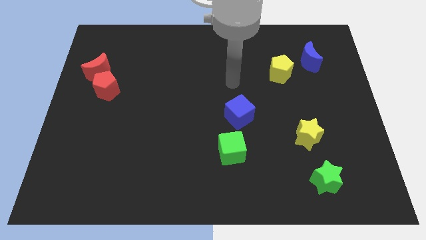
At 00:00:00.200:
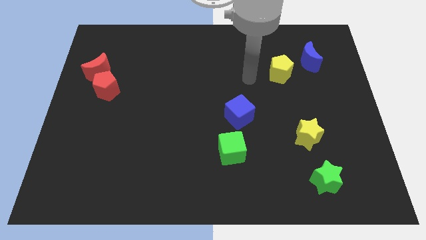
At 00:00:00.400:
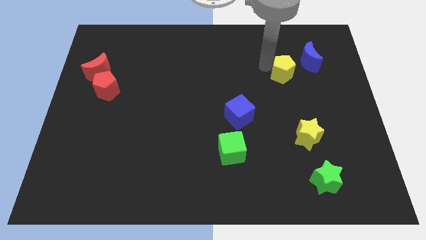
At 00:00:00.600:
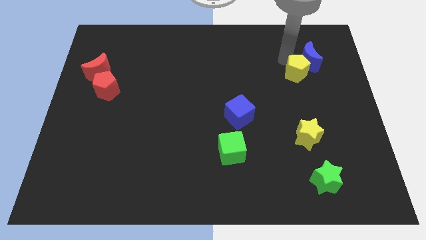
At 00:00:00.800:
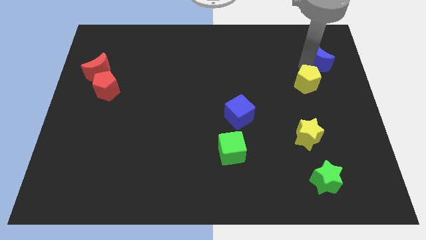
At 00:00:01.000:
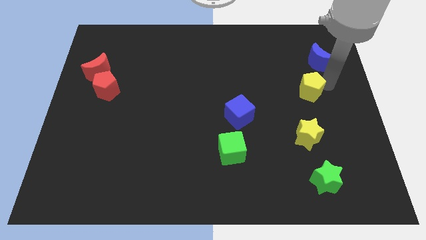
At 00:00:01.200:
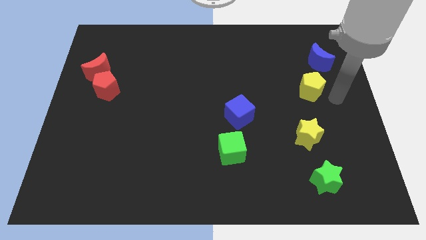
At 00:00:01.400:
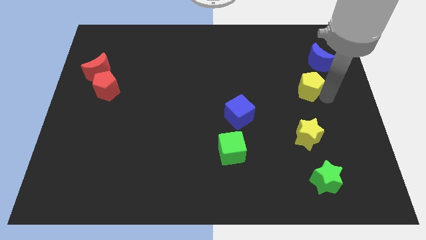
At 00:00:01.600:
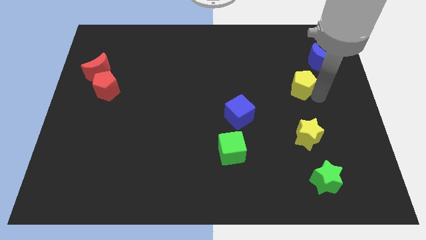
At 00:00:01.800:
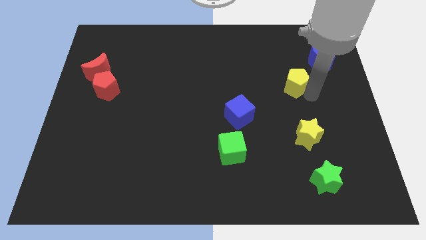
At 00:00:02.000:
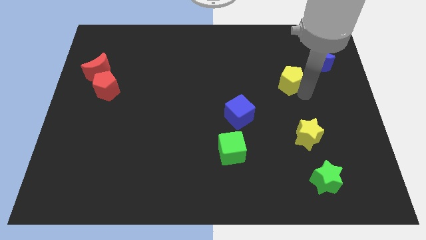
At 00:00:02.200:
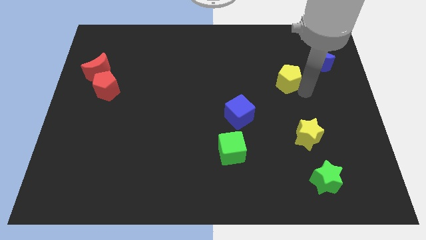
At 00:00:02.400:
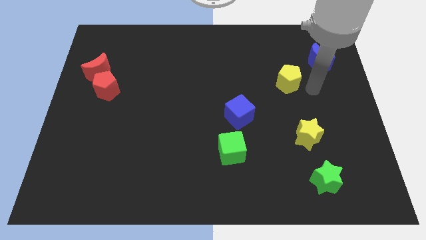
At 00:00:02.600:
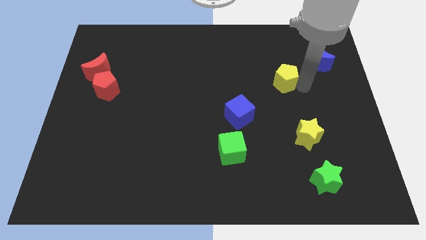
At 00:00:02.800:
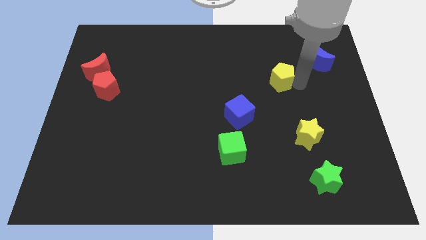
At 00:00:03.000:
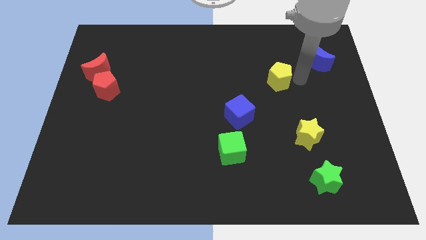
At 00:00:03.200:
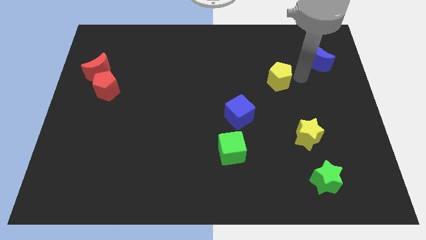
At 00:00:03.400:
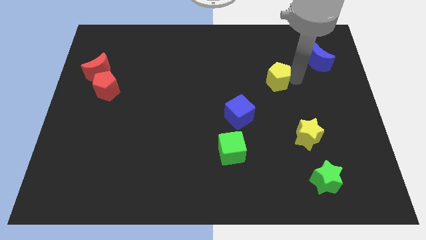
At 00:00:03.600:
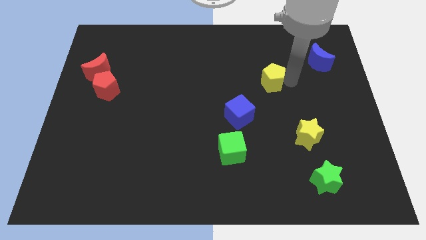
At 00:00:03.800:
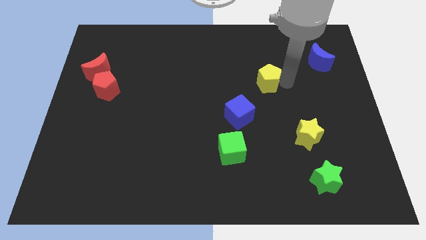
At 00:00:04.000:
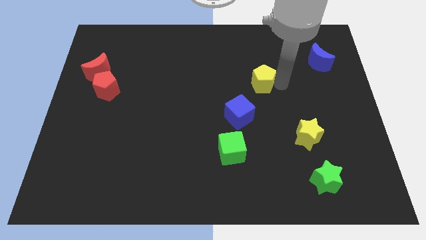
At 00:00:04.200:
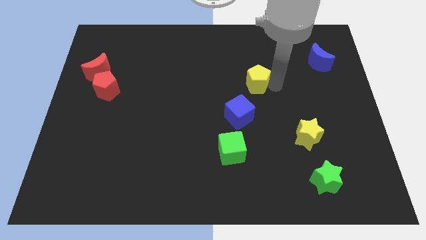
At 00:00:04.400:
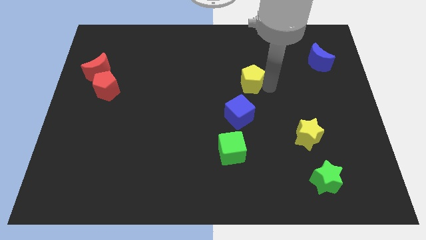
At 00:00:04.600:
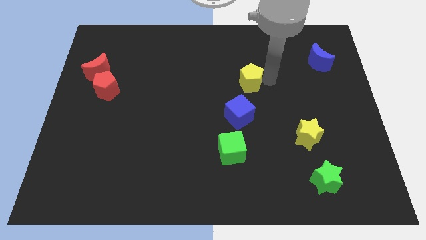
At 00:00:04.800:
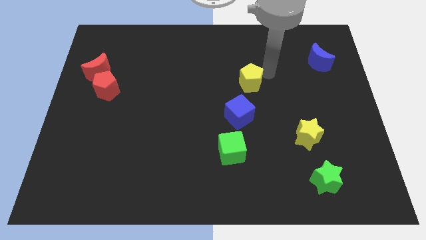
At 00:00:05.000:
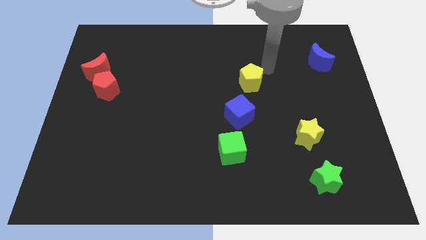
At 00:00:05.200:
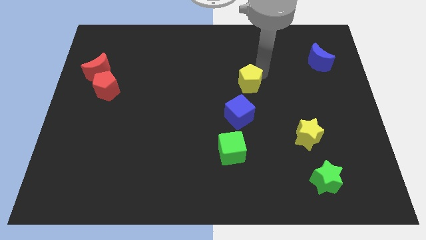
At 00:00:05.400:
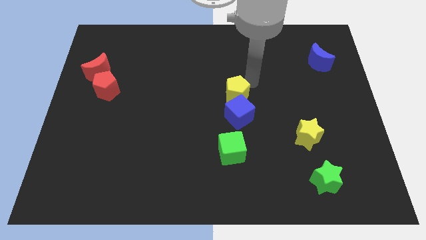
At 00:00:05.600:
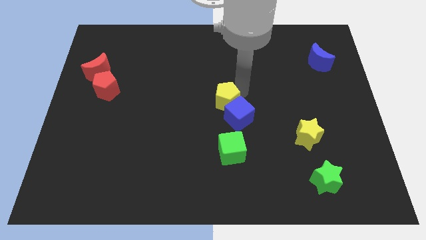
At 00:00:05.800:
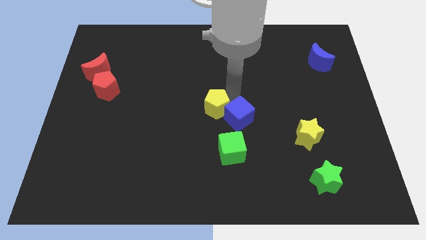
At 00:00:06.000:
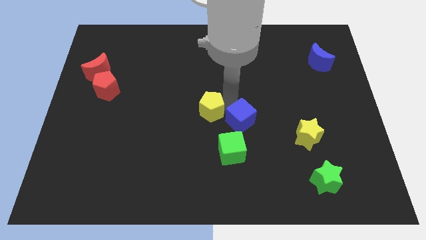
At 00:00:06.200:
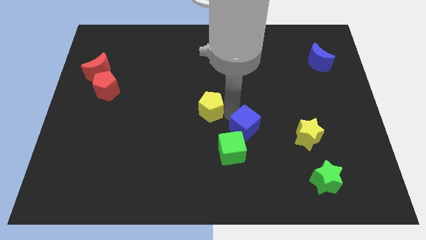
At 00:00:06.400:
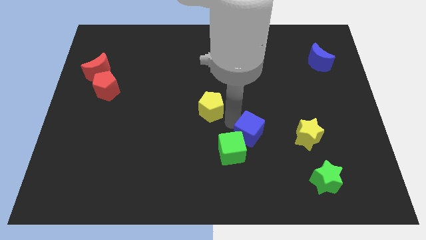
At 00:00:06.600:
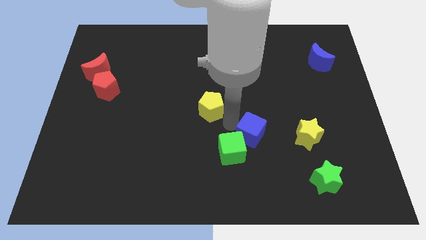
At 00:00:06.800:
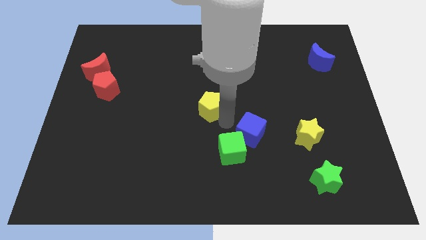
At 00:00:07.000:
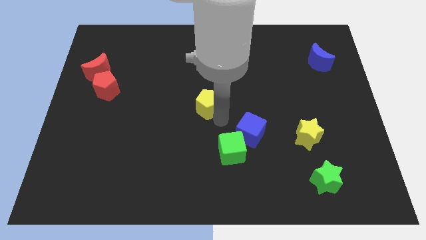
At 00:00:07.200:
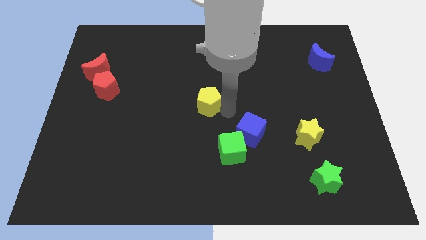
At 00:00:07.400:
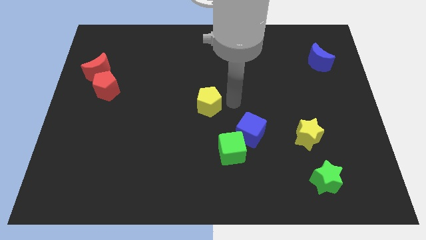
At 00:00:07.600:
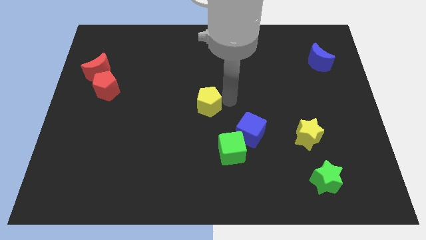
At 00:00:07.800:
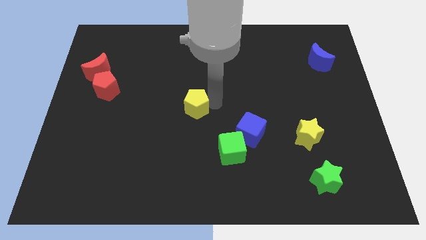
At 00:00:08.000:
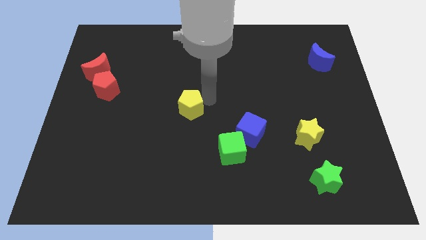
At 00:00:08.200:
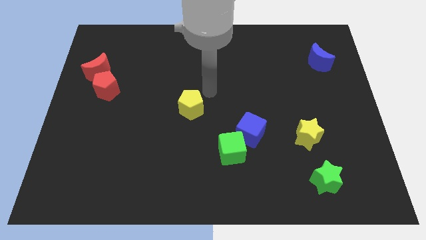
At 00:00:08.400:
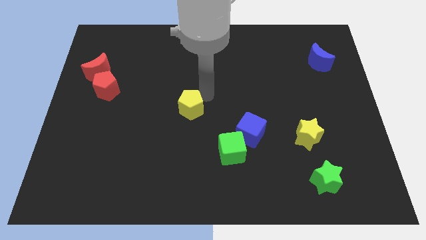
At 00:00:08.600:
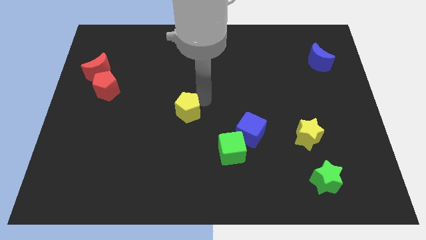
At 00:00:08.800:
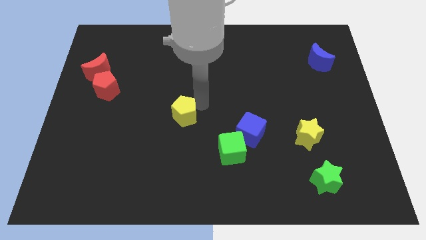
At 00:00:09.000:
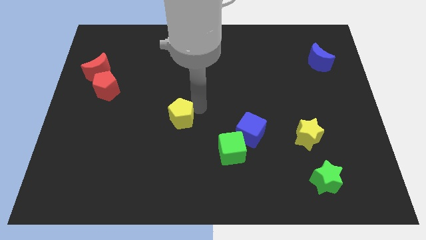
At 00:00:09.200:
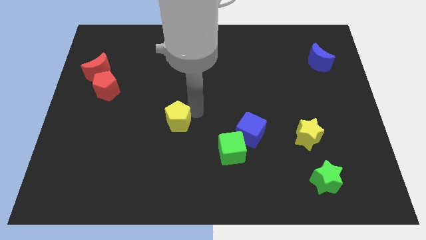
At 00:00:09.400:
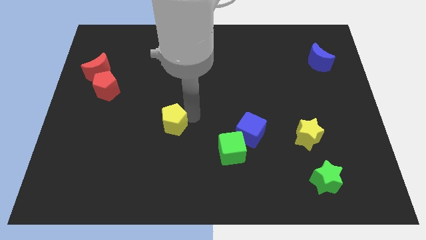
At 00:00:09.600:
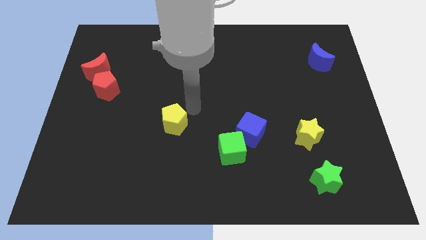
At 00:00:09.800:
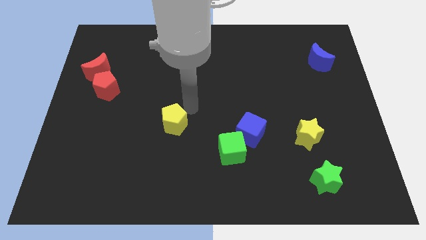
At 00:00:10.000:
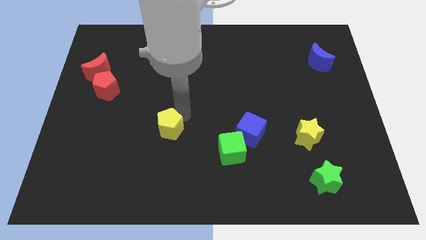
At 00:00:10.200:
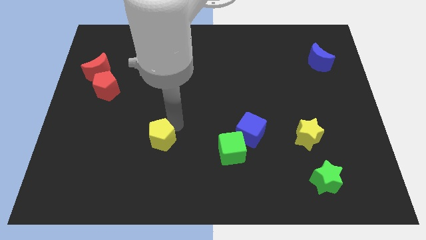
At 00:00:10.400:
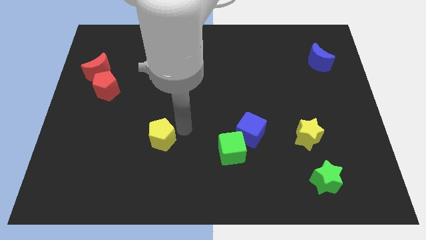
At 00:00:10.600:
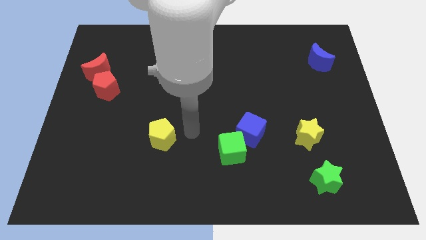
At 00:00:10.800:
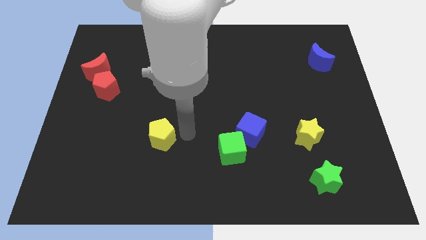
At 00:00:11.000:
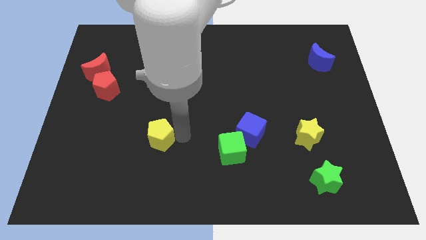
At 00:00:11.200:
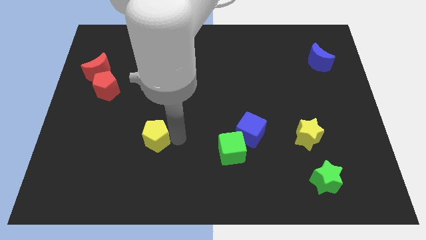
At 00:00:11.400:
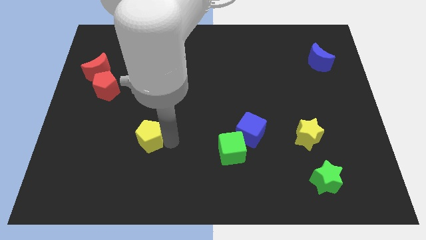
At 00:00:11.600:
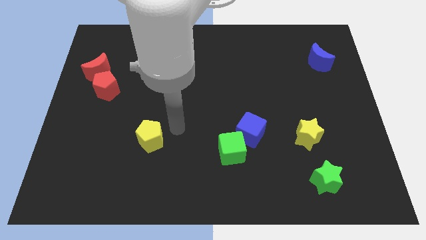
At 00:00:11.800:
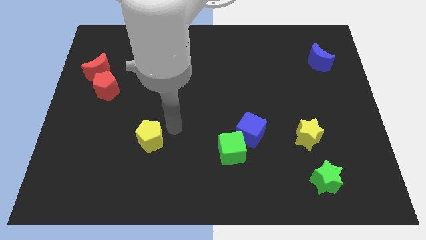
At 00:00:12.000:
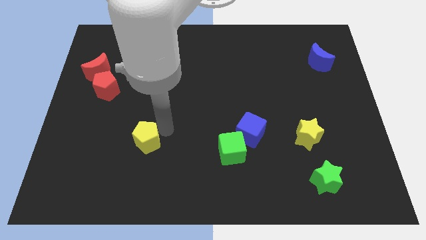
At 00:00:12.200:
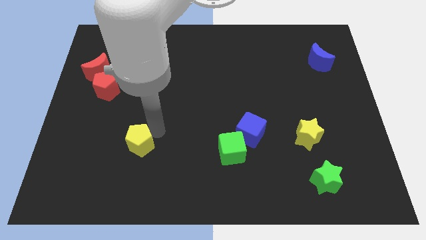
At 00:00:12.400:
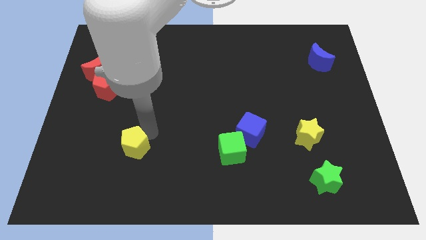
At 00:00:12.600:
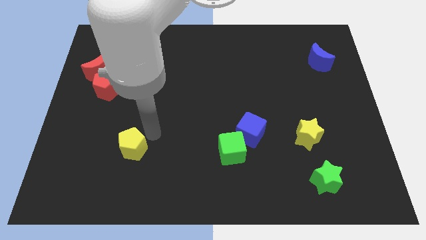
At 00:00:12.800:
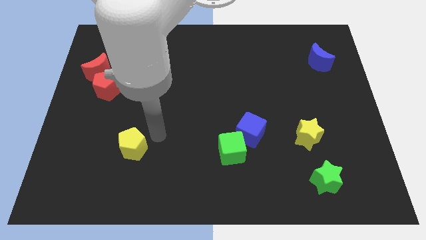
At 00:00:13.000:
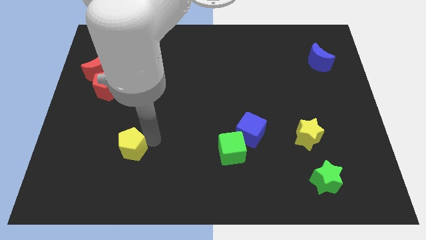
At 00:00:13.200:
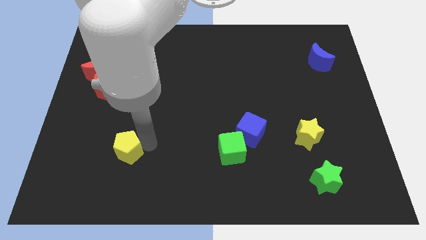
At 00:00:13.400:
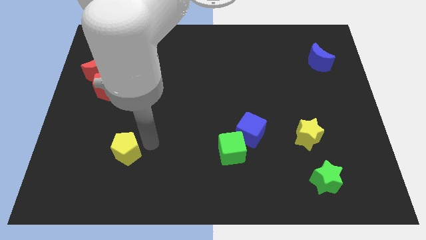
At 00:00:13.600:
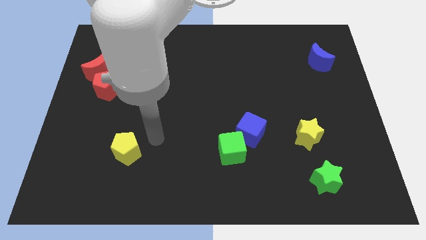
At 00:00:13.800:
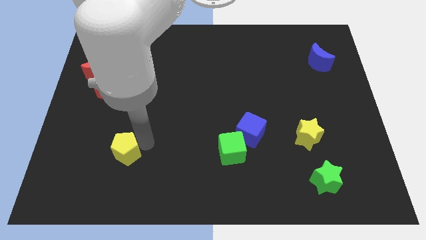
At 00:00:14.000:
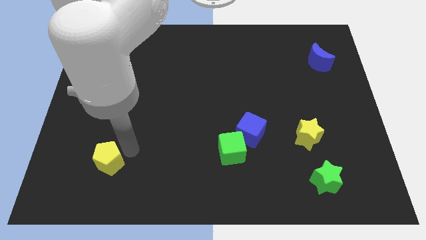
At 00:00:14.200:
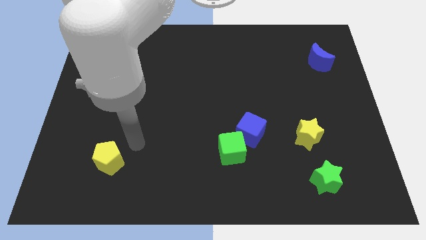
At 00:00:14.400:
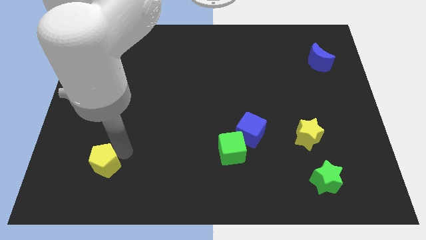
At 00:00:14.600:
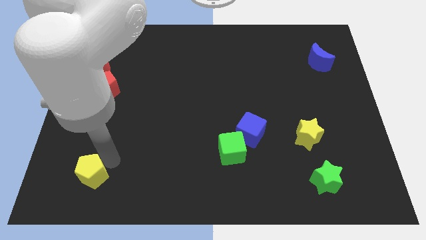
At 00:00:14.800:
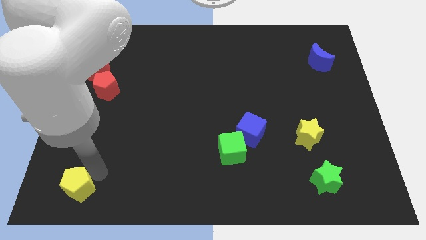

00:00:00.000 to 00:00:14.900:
put the yellow pentagon to the bottom left
